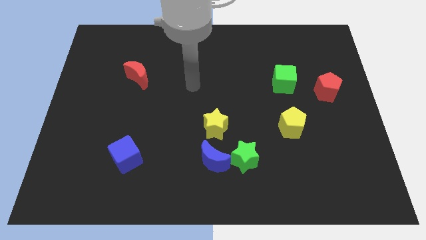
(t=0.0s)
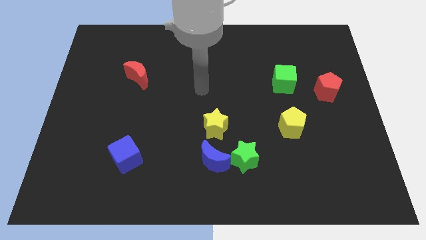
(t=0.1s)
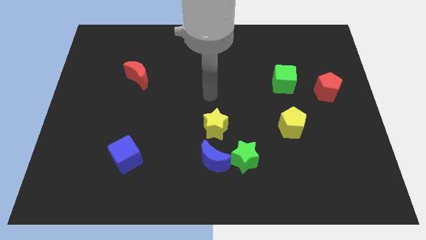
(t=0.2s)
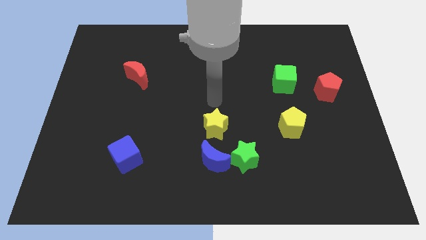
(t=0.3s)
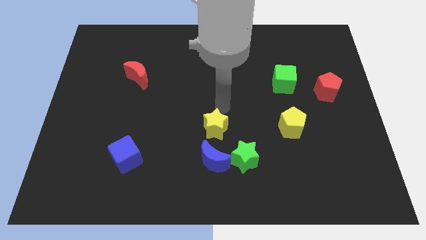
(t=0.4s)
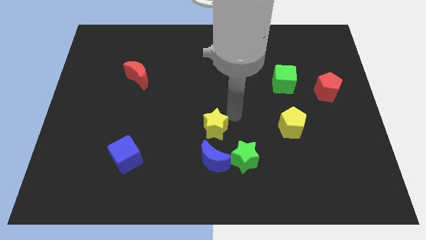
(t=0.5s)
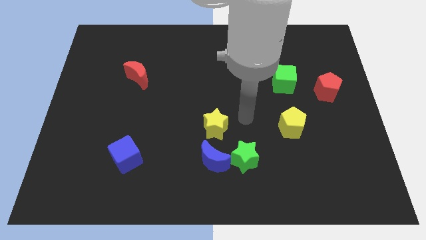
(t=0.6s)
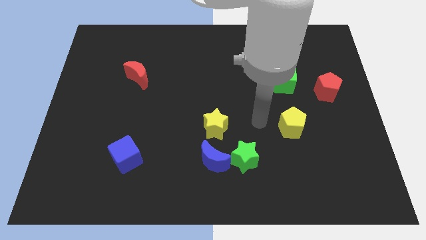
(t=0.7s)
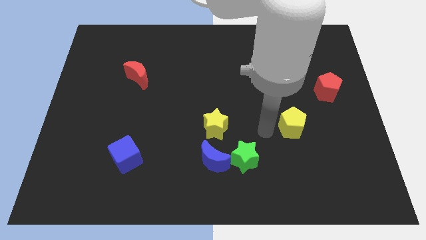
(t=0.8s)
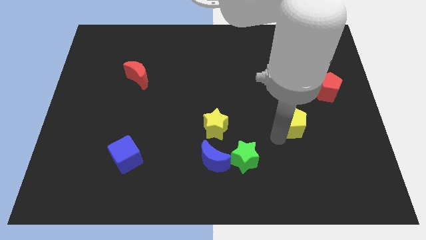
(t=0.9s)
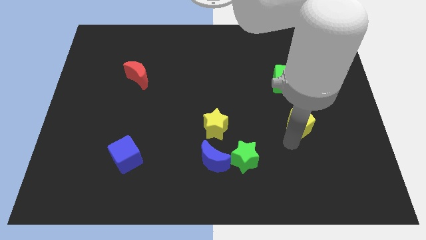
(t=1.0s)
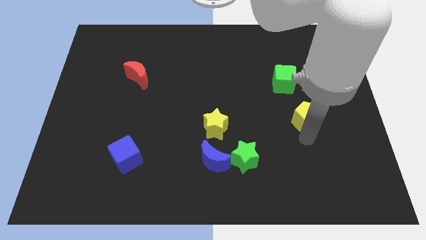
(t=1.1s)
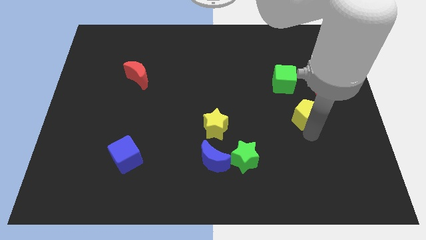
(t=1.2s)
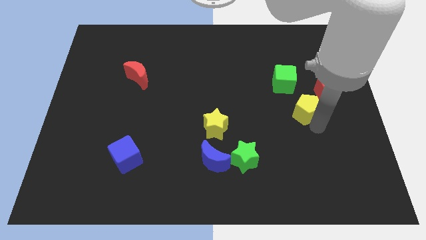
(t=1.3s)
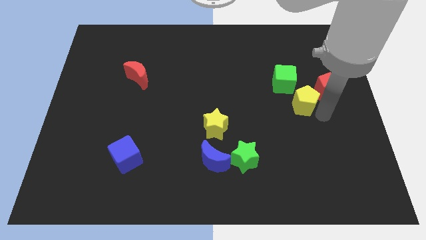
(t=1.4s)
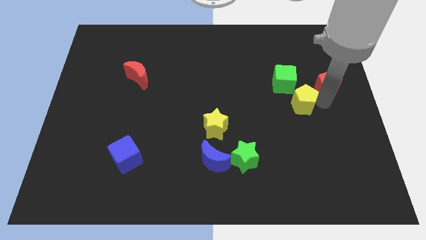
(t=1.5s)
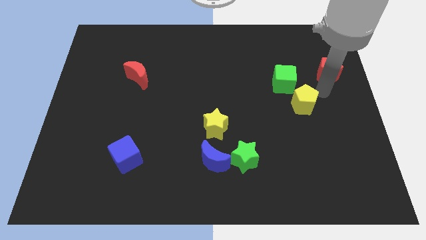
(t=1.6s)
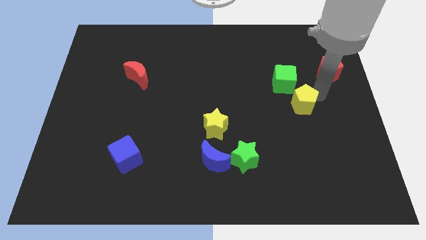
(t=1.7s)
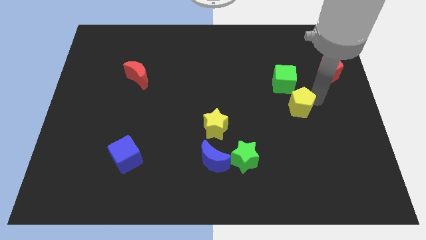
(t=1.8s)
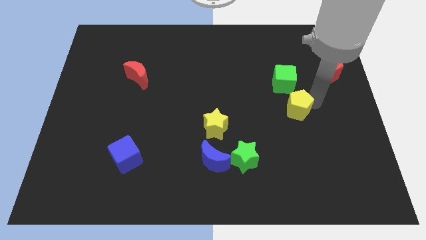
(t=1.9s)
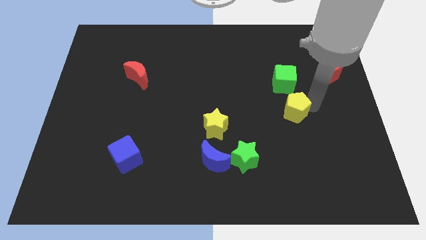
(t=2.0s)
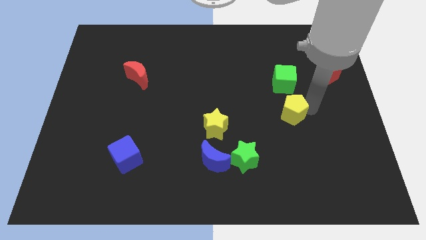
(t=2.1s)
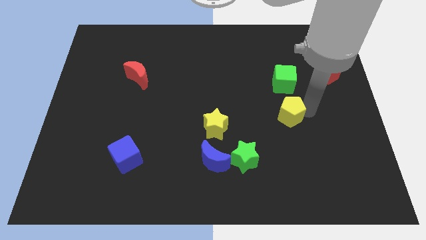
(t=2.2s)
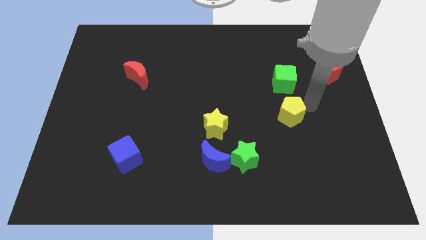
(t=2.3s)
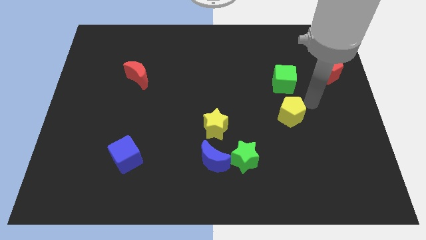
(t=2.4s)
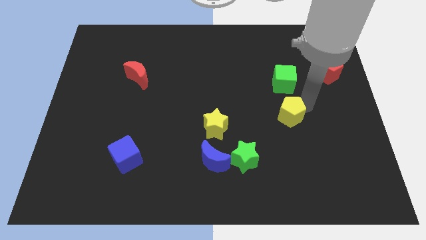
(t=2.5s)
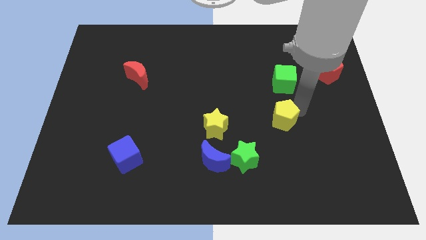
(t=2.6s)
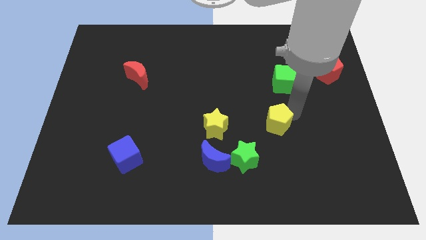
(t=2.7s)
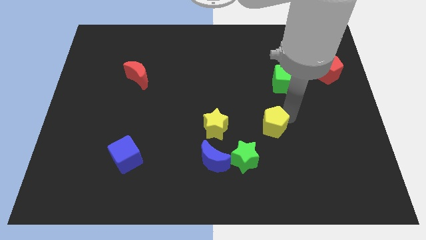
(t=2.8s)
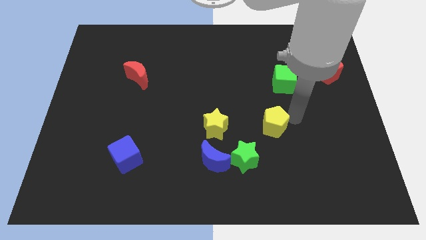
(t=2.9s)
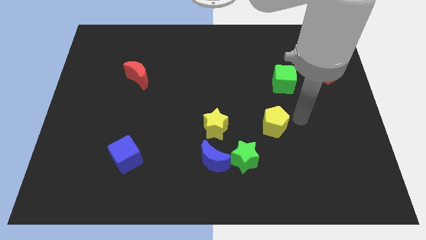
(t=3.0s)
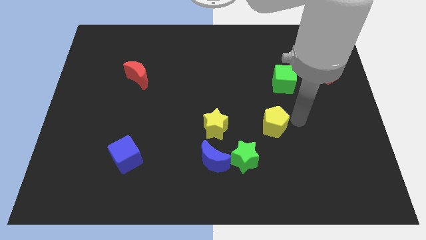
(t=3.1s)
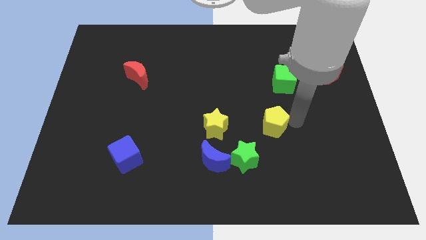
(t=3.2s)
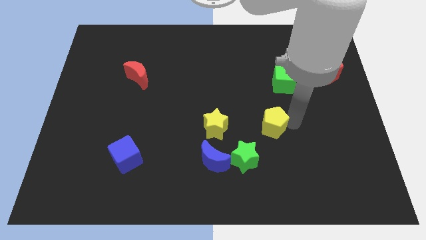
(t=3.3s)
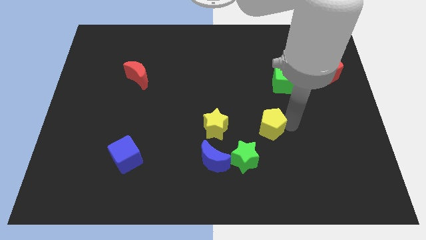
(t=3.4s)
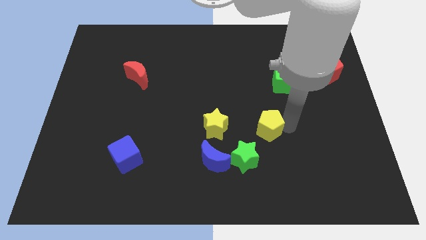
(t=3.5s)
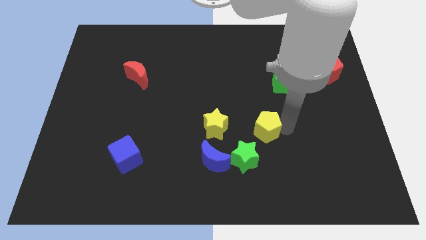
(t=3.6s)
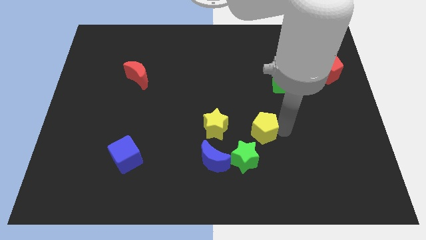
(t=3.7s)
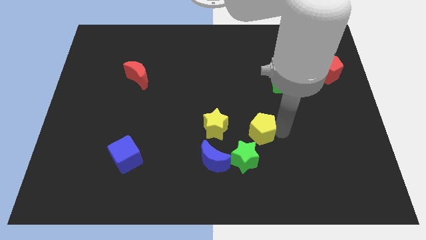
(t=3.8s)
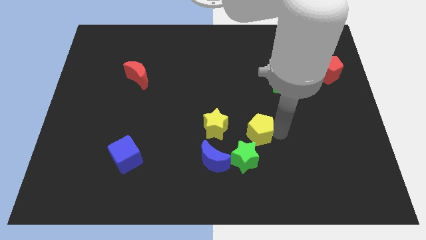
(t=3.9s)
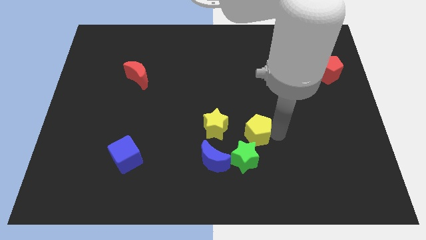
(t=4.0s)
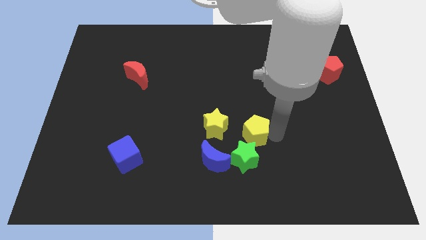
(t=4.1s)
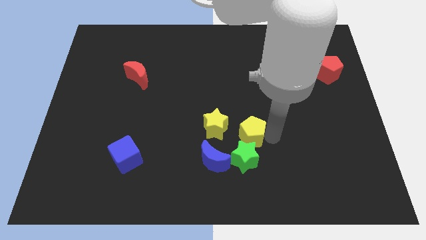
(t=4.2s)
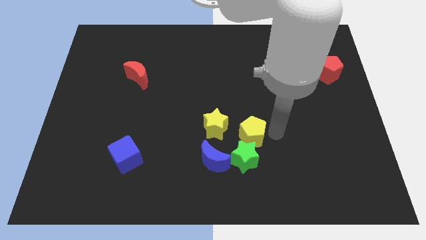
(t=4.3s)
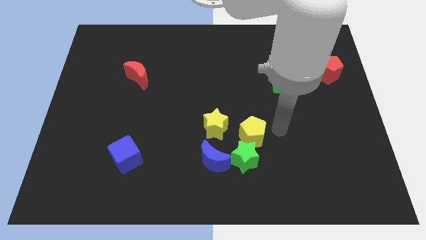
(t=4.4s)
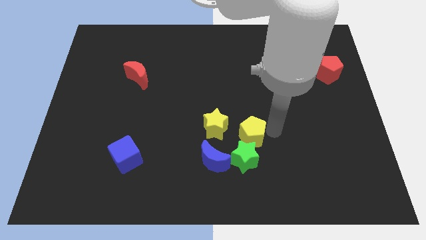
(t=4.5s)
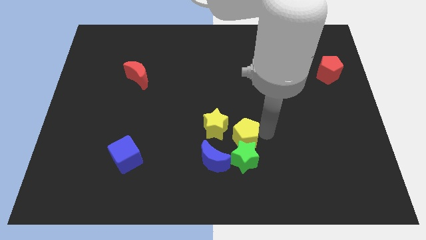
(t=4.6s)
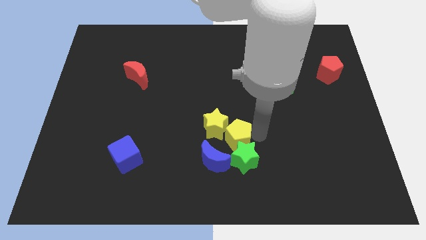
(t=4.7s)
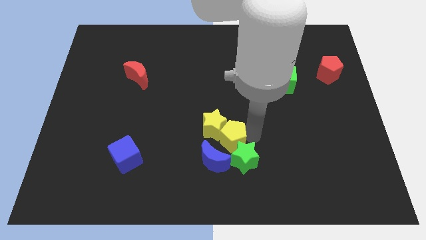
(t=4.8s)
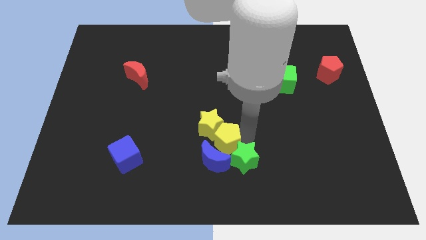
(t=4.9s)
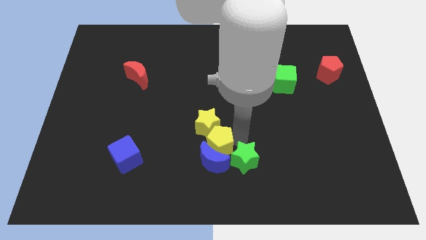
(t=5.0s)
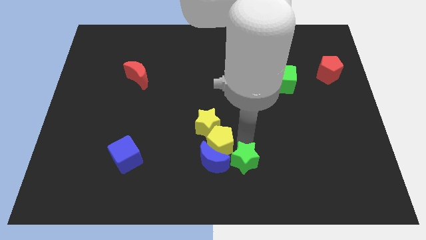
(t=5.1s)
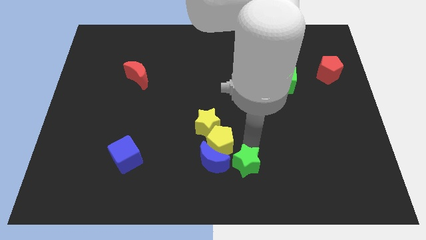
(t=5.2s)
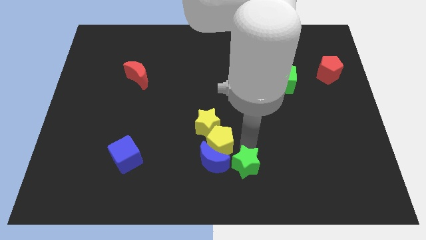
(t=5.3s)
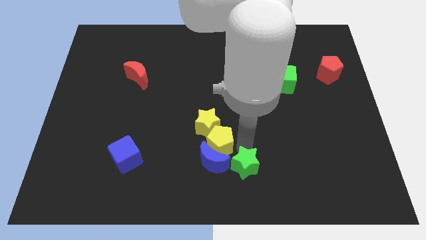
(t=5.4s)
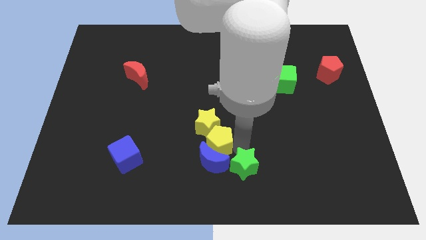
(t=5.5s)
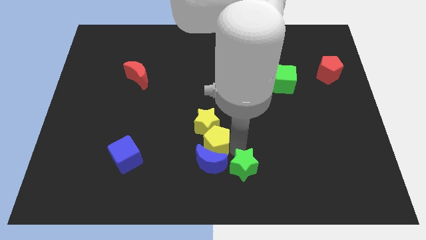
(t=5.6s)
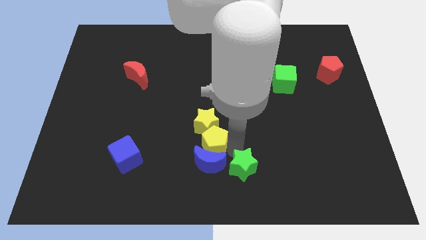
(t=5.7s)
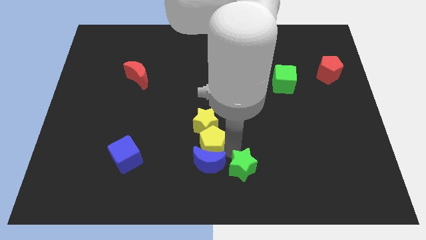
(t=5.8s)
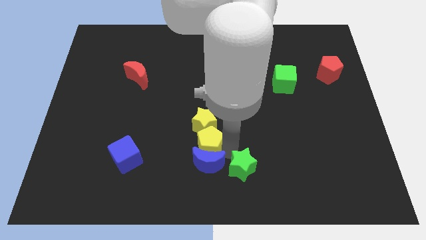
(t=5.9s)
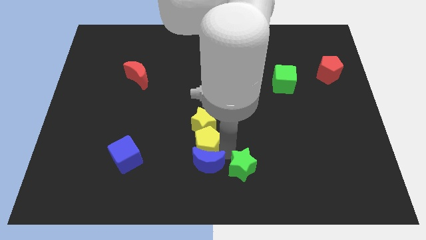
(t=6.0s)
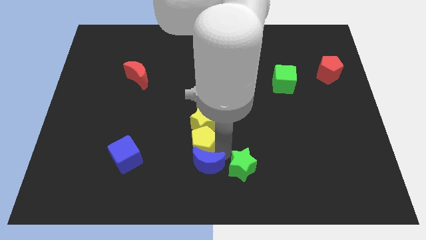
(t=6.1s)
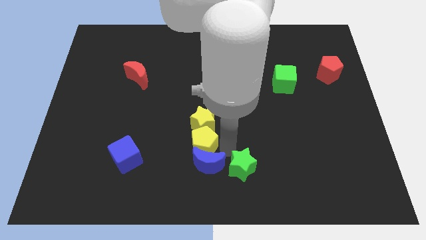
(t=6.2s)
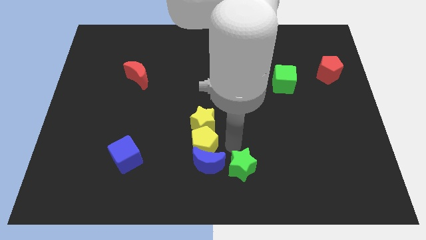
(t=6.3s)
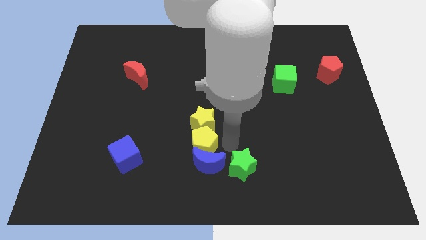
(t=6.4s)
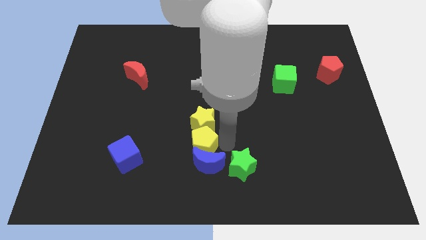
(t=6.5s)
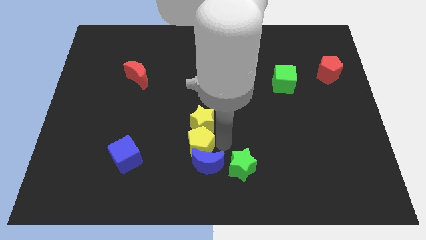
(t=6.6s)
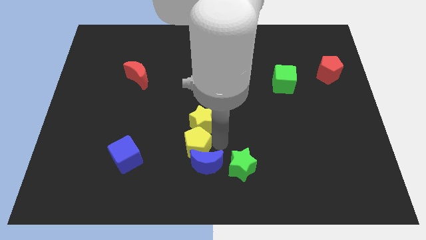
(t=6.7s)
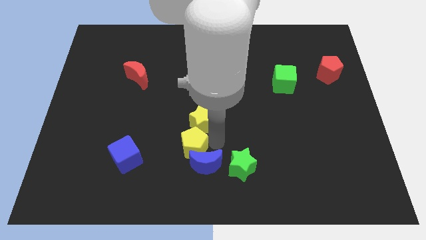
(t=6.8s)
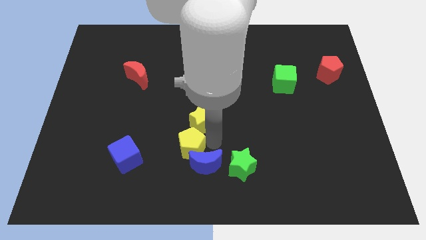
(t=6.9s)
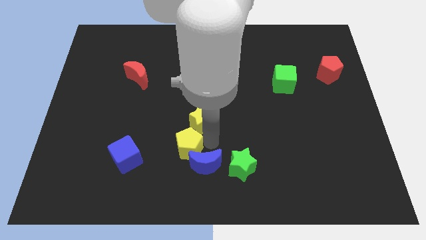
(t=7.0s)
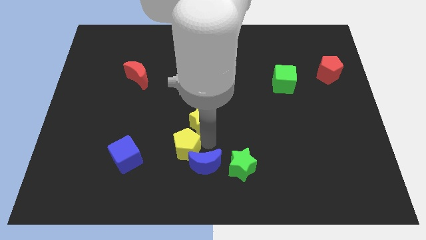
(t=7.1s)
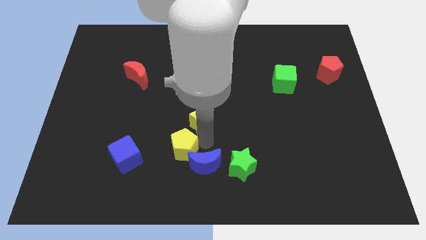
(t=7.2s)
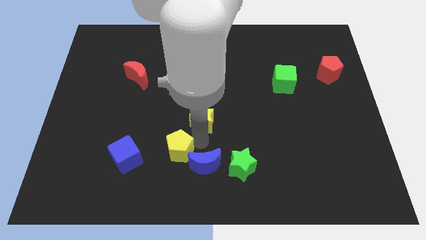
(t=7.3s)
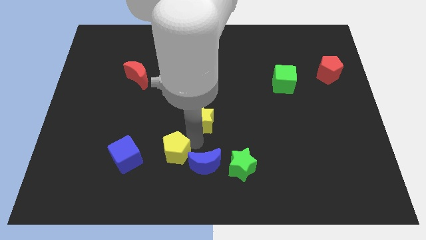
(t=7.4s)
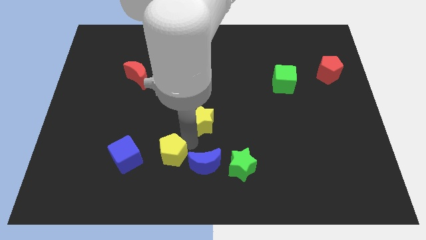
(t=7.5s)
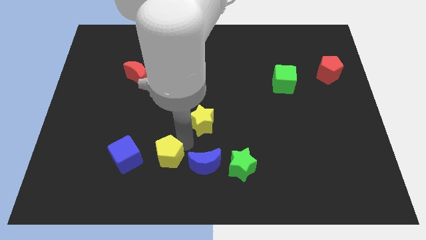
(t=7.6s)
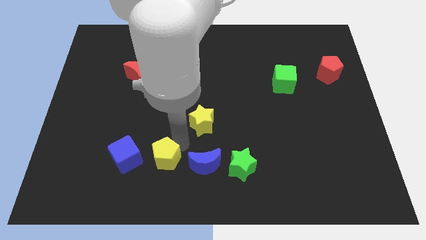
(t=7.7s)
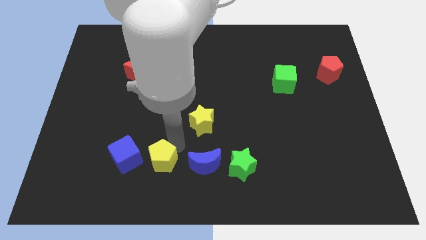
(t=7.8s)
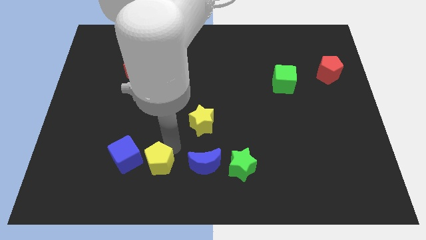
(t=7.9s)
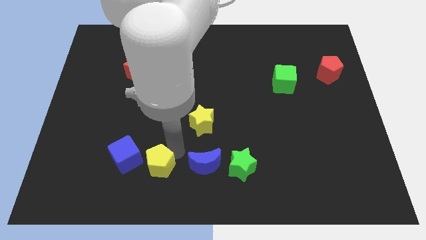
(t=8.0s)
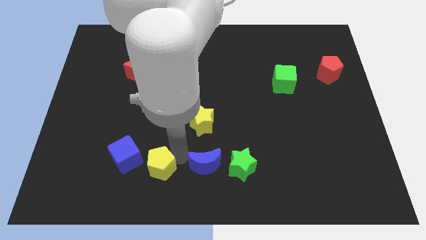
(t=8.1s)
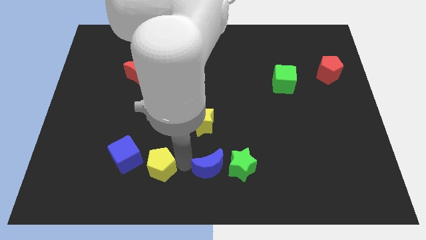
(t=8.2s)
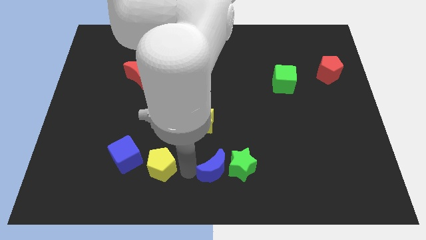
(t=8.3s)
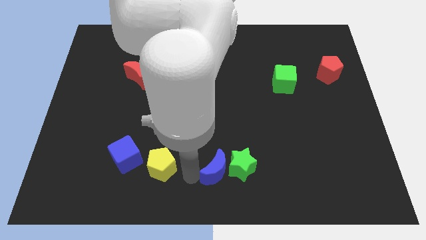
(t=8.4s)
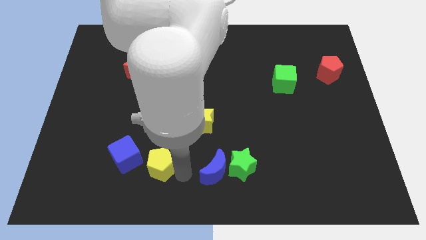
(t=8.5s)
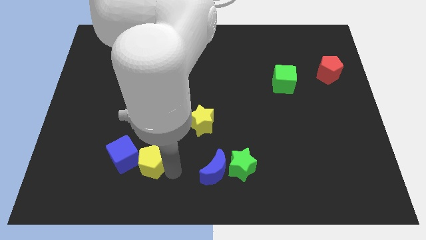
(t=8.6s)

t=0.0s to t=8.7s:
slide the yellow pentagon next to the blue cube
